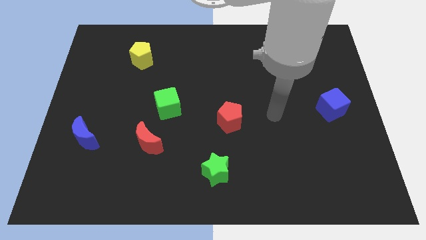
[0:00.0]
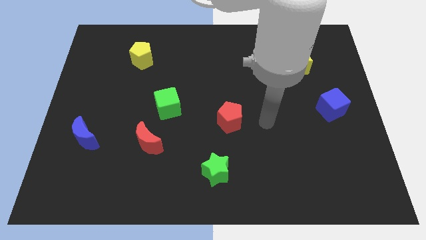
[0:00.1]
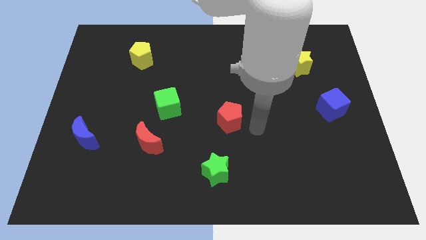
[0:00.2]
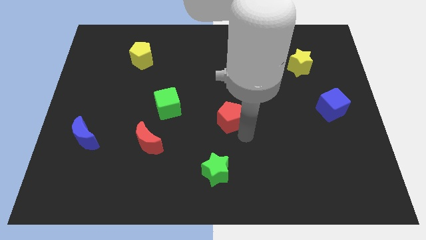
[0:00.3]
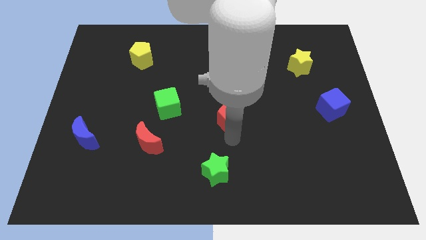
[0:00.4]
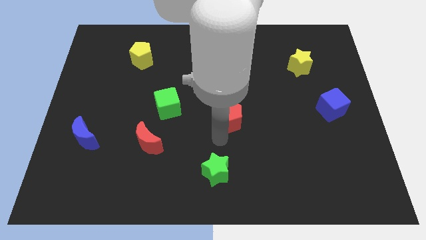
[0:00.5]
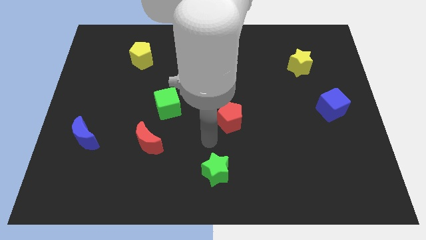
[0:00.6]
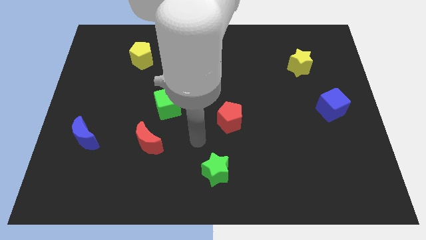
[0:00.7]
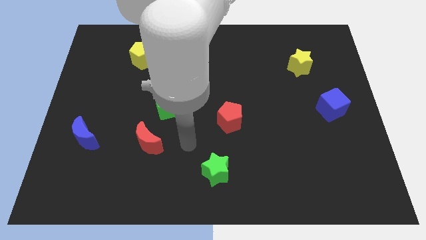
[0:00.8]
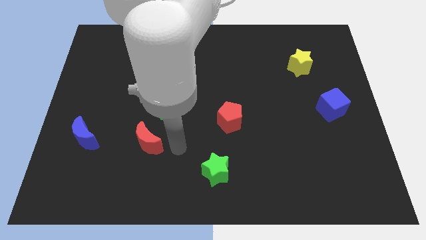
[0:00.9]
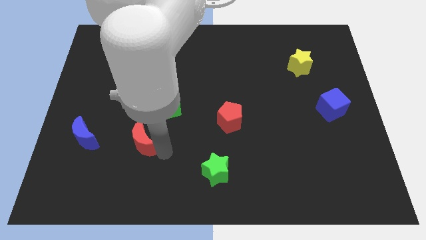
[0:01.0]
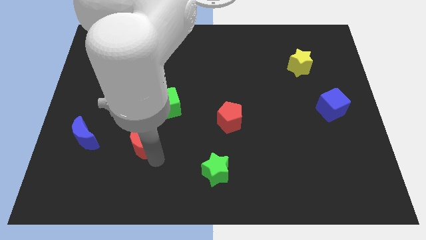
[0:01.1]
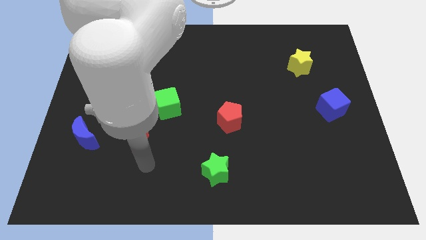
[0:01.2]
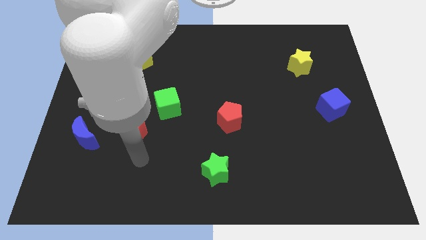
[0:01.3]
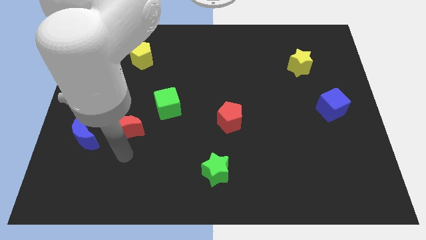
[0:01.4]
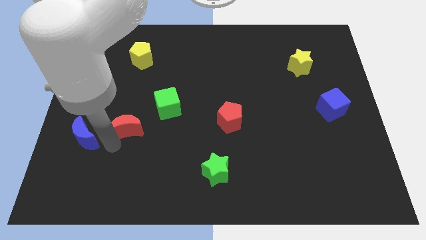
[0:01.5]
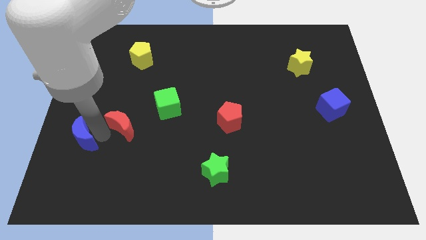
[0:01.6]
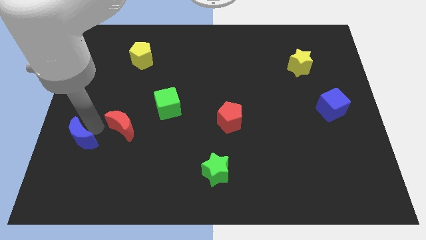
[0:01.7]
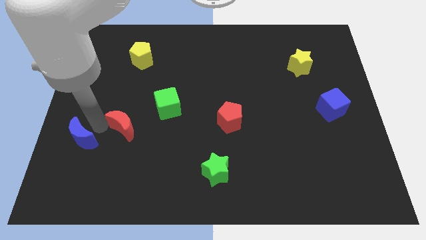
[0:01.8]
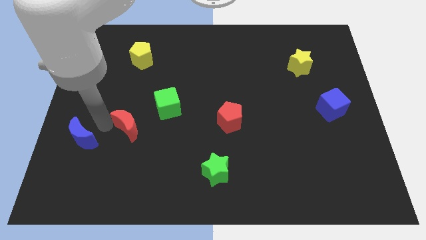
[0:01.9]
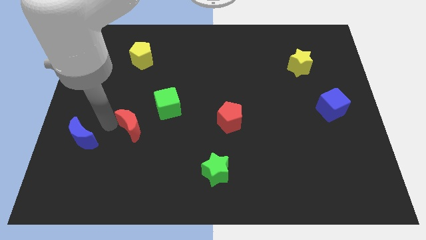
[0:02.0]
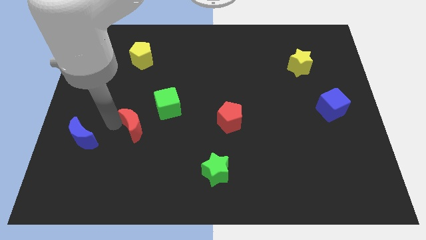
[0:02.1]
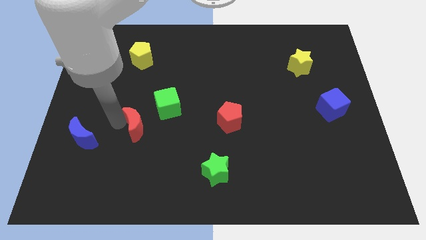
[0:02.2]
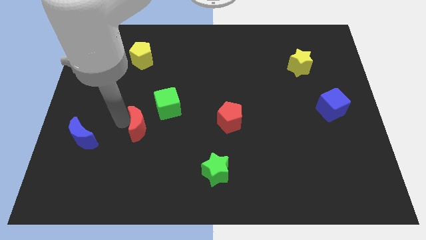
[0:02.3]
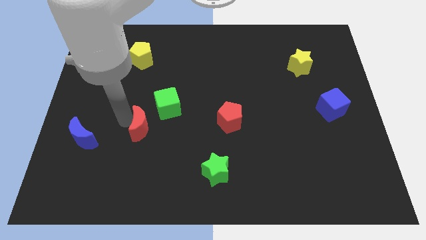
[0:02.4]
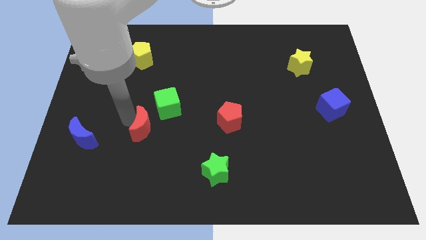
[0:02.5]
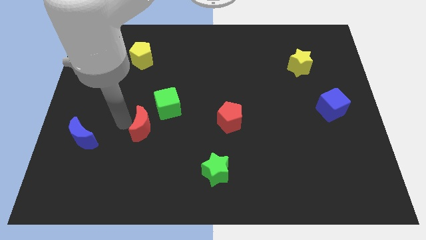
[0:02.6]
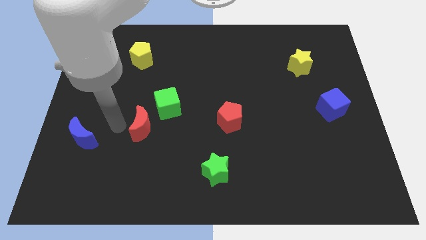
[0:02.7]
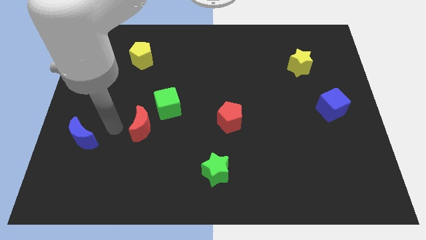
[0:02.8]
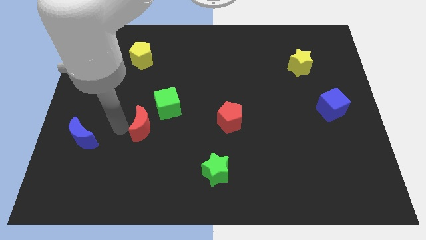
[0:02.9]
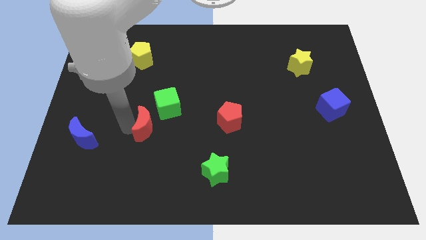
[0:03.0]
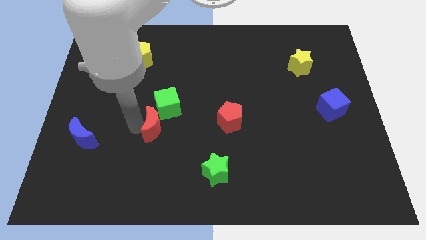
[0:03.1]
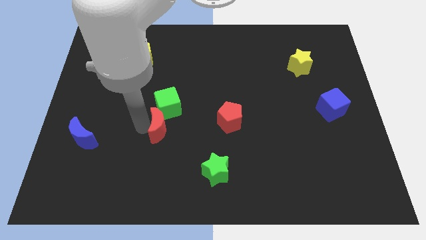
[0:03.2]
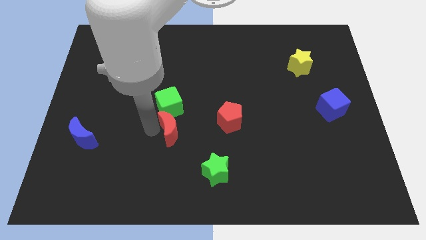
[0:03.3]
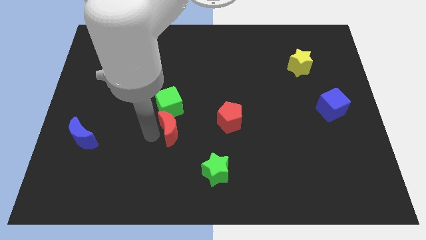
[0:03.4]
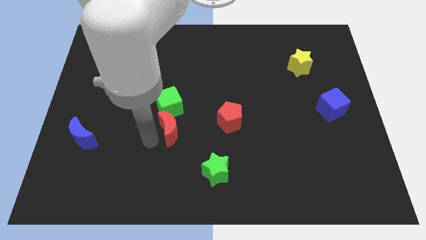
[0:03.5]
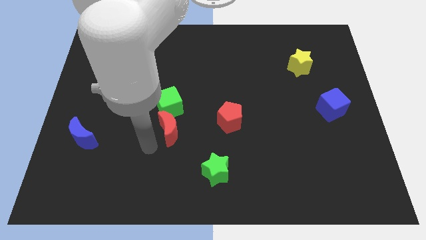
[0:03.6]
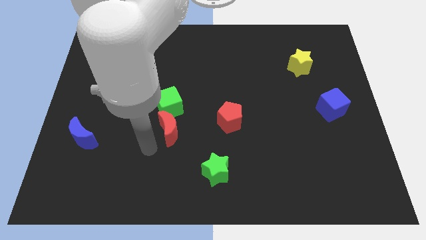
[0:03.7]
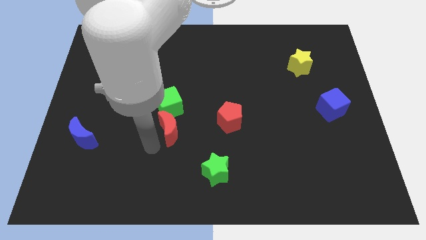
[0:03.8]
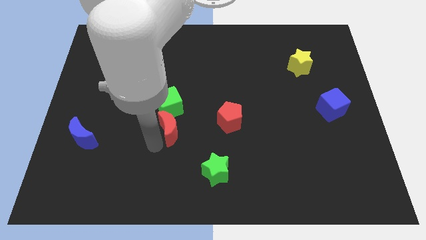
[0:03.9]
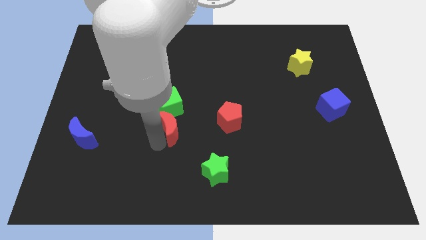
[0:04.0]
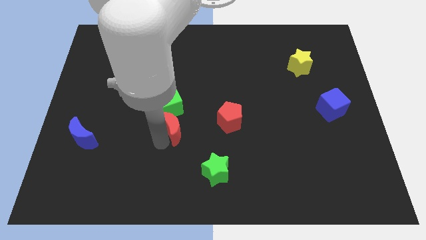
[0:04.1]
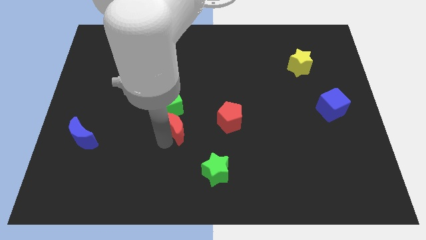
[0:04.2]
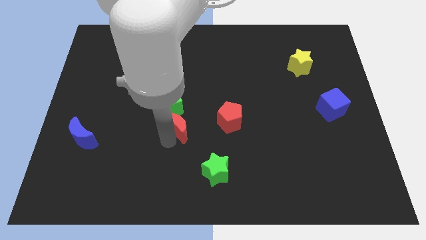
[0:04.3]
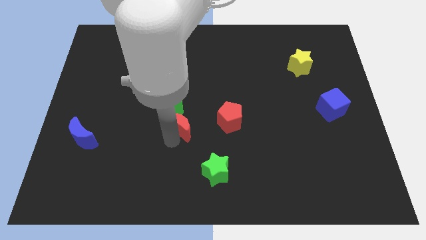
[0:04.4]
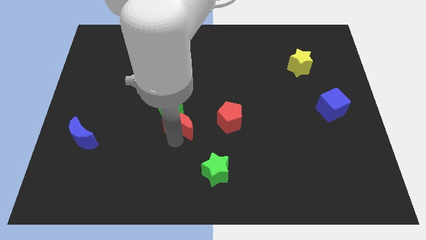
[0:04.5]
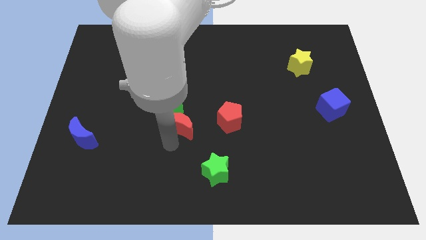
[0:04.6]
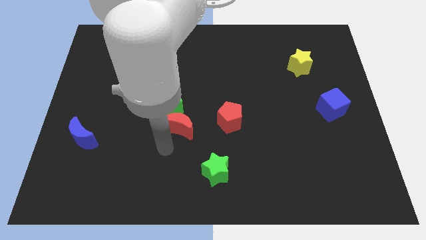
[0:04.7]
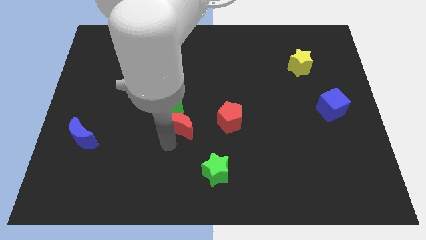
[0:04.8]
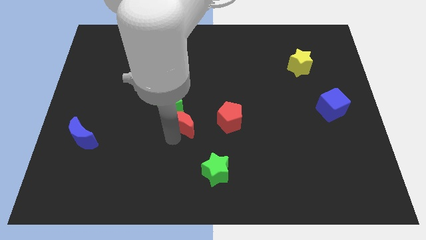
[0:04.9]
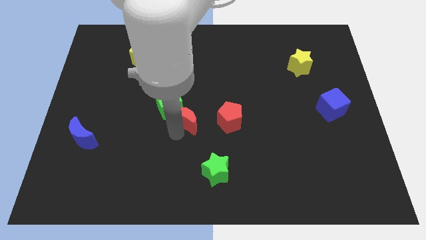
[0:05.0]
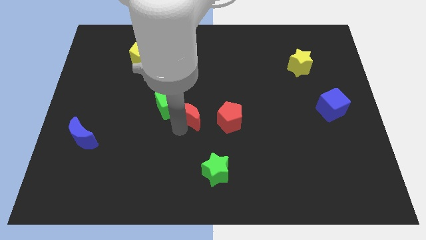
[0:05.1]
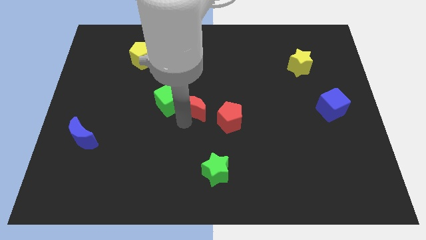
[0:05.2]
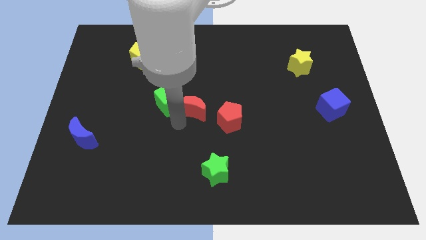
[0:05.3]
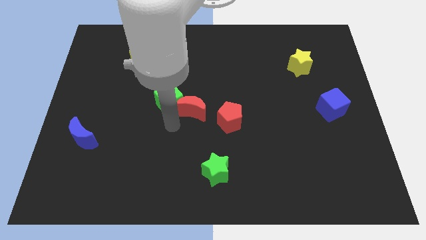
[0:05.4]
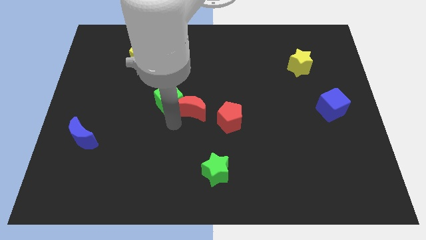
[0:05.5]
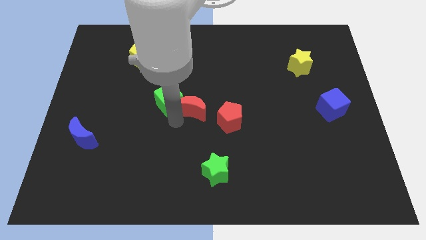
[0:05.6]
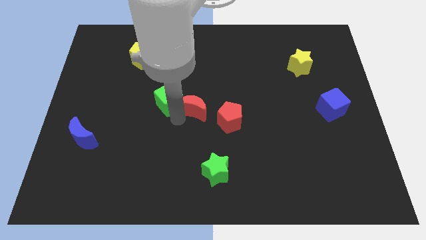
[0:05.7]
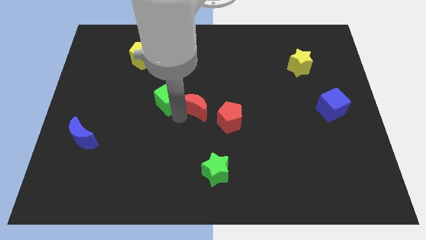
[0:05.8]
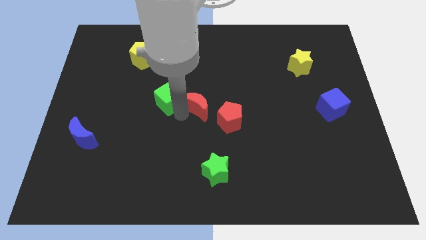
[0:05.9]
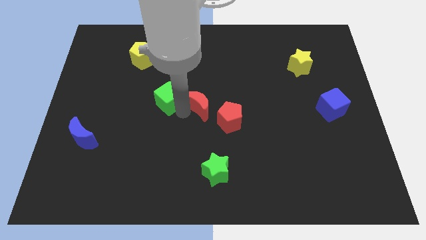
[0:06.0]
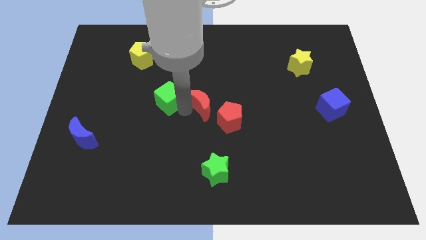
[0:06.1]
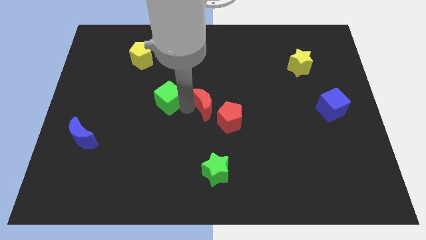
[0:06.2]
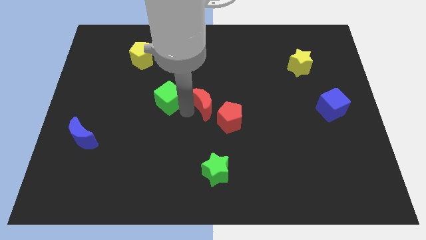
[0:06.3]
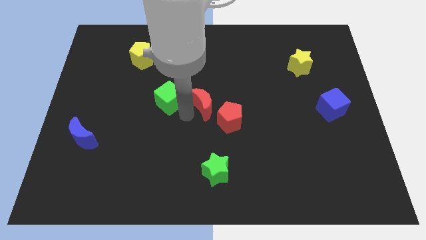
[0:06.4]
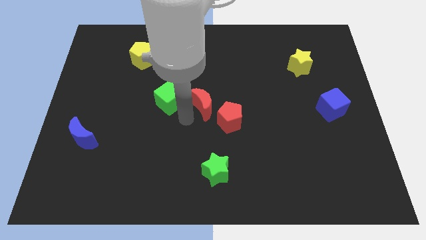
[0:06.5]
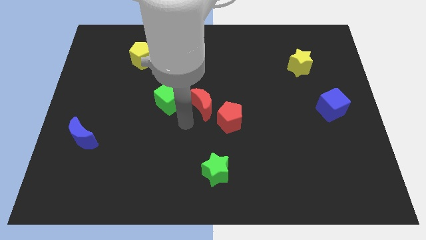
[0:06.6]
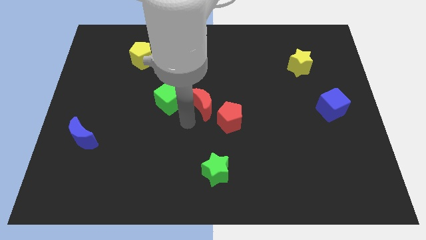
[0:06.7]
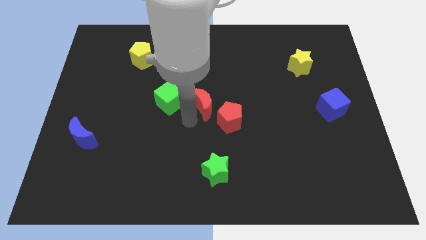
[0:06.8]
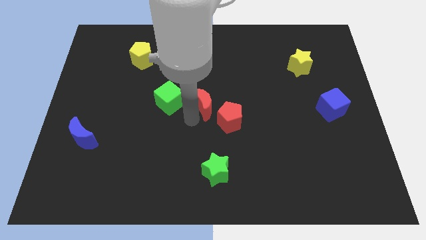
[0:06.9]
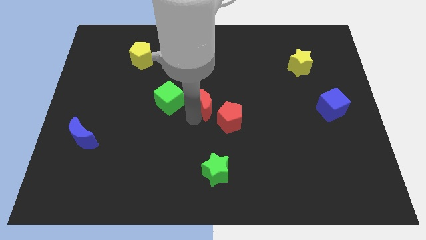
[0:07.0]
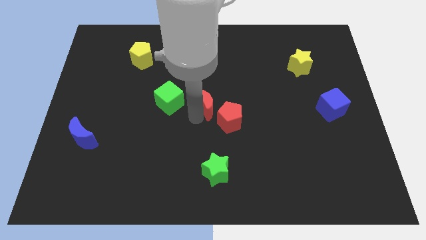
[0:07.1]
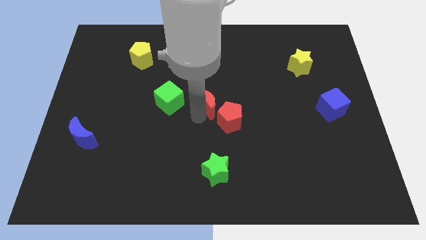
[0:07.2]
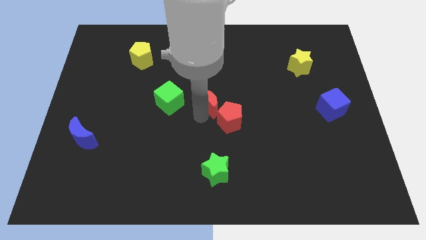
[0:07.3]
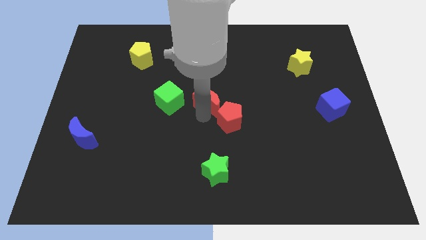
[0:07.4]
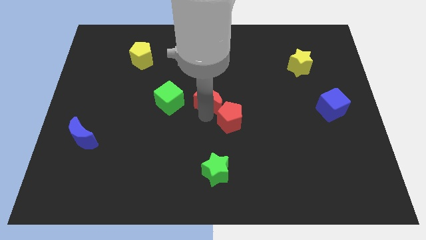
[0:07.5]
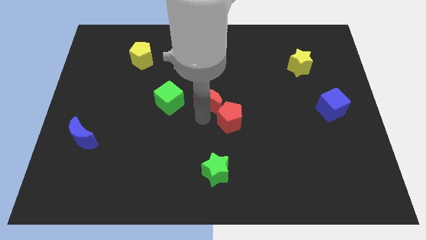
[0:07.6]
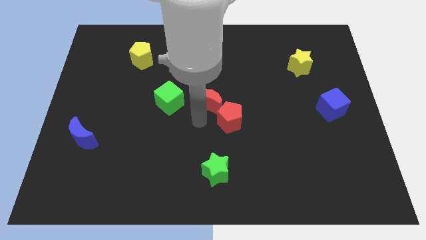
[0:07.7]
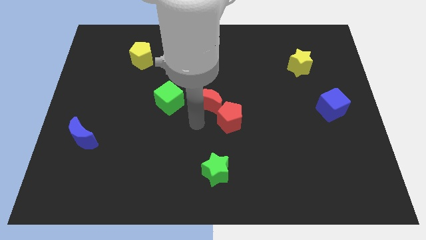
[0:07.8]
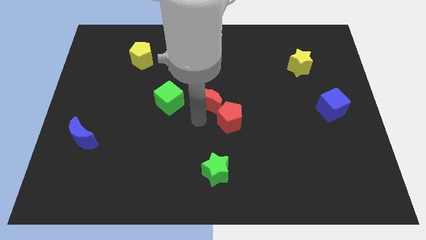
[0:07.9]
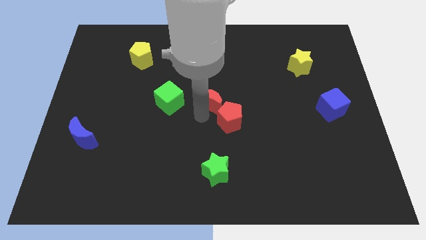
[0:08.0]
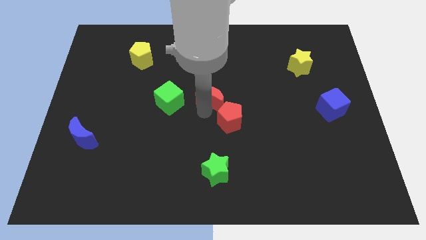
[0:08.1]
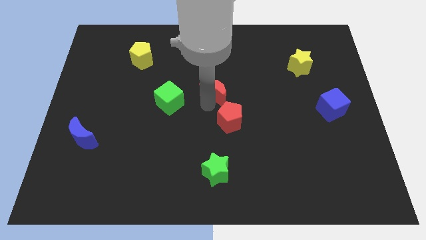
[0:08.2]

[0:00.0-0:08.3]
slide the red moon up and to the right
